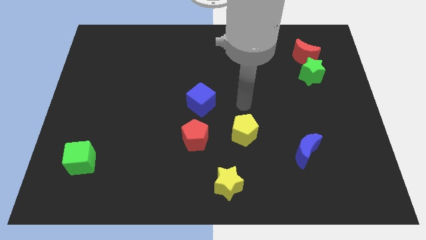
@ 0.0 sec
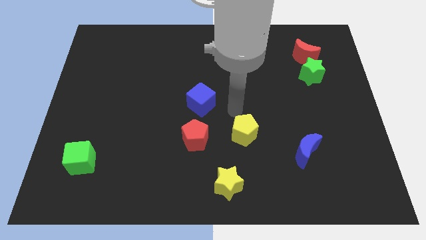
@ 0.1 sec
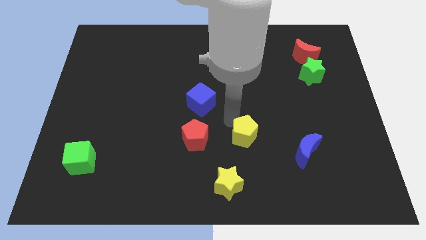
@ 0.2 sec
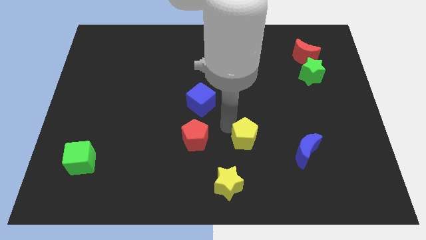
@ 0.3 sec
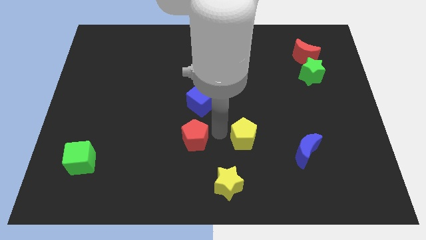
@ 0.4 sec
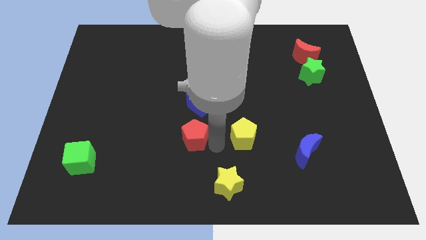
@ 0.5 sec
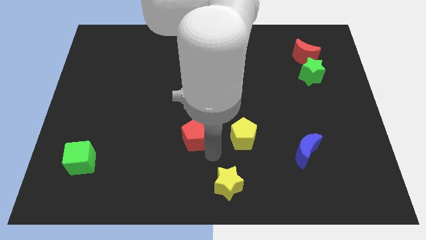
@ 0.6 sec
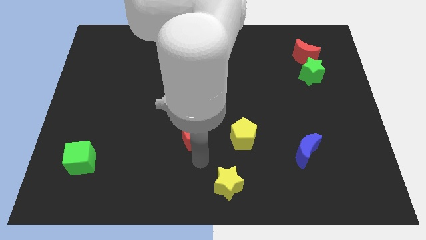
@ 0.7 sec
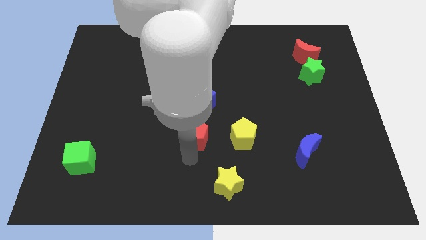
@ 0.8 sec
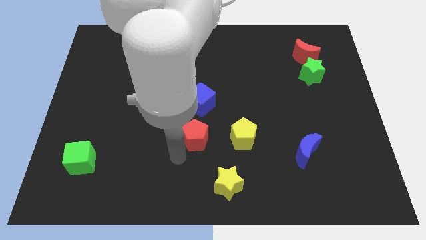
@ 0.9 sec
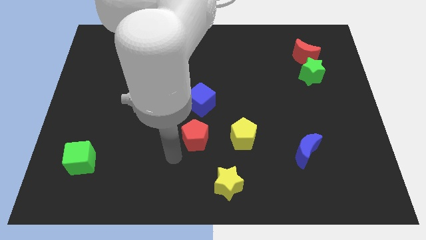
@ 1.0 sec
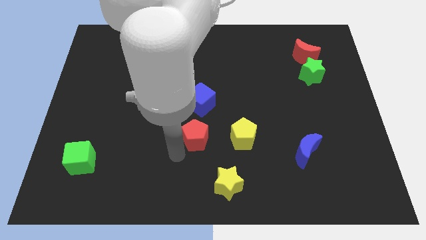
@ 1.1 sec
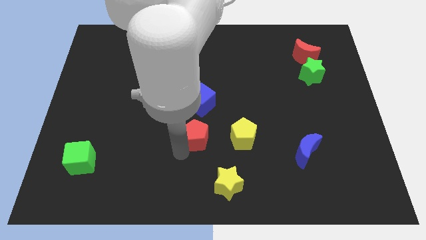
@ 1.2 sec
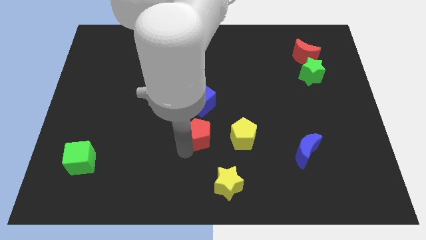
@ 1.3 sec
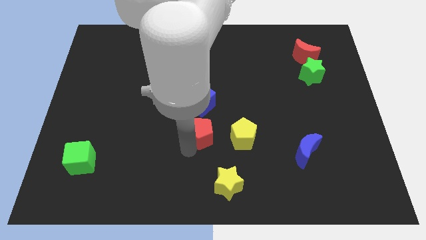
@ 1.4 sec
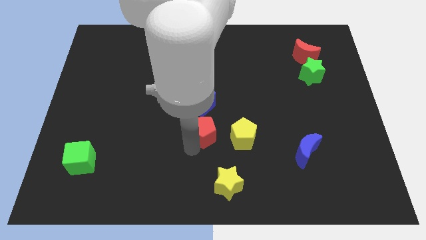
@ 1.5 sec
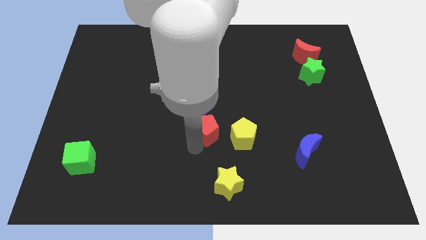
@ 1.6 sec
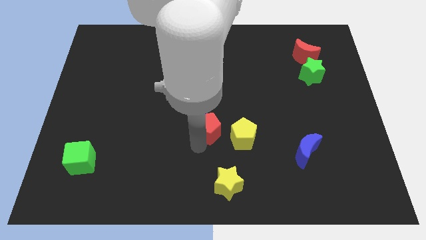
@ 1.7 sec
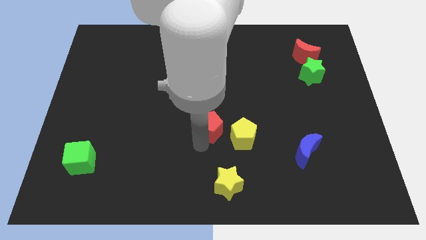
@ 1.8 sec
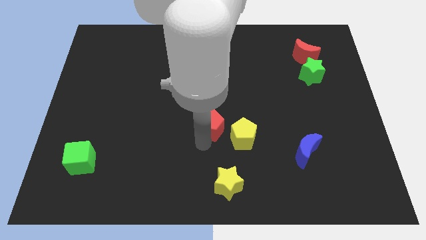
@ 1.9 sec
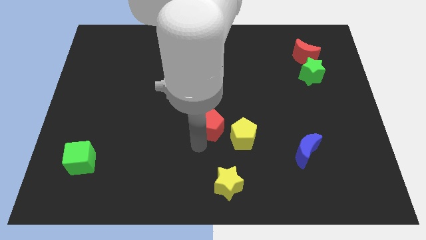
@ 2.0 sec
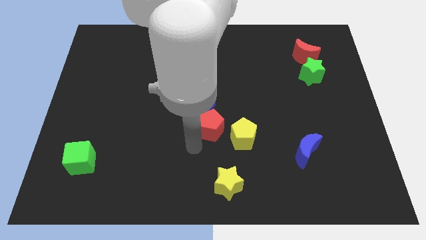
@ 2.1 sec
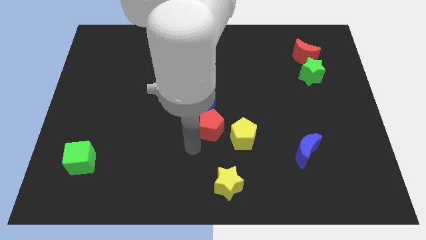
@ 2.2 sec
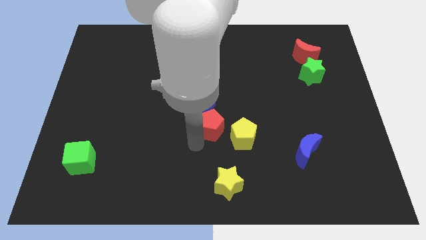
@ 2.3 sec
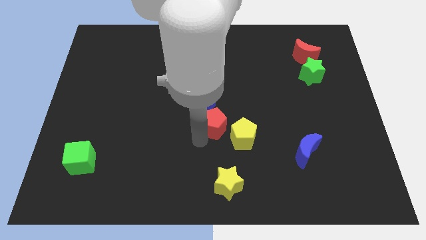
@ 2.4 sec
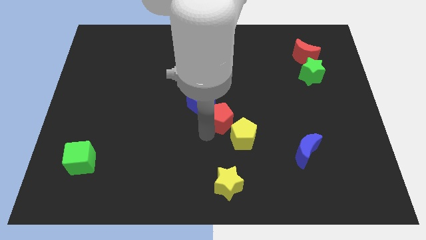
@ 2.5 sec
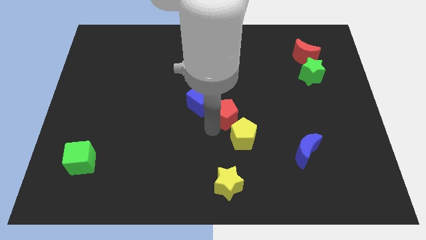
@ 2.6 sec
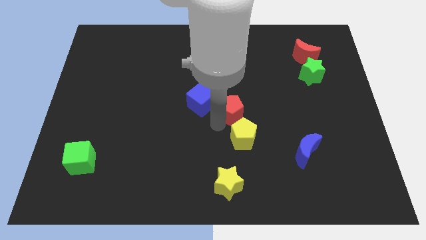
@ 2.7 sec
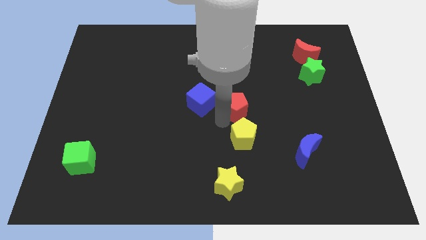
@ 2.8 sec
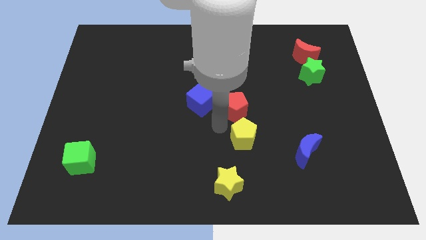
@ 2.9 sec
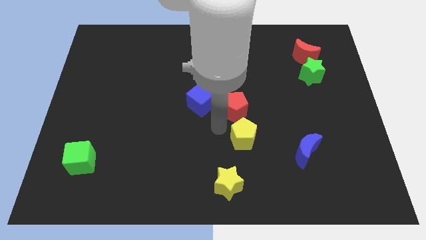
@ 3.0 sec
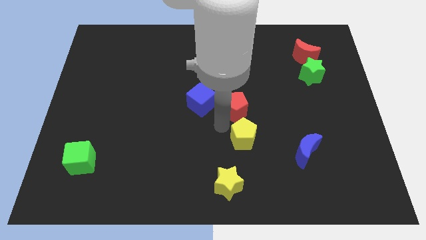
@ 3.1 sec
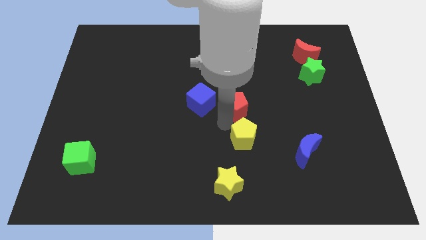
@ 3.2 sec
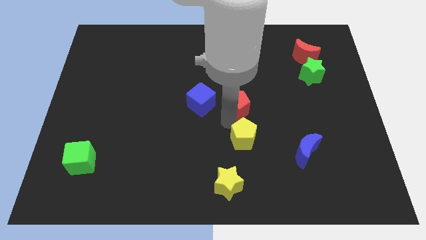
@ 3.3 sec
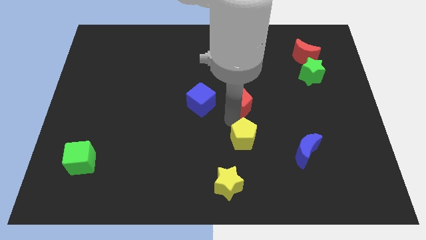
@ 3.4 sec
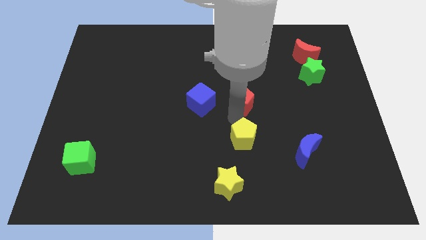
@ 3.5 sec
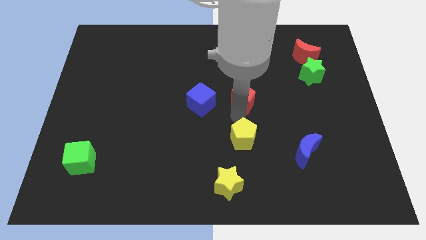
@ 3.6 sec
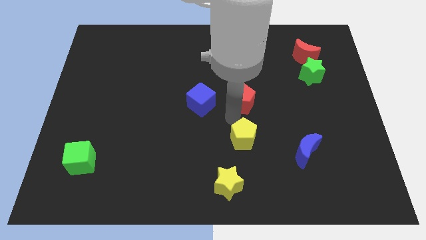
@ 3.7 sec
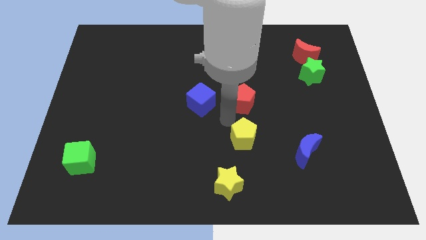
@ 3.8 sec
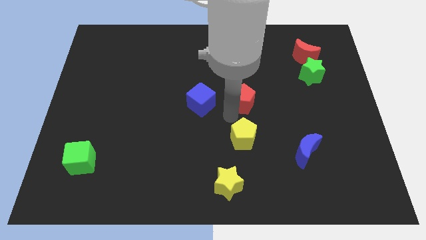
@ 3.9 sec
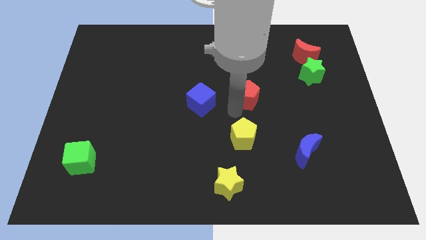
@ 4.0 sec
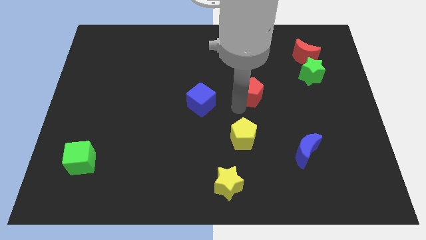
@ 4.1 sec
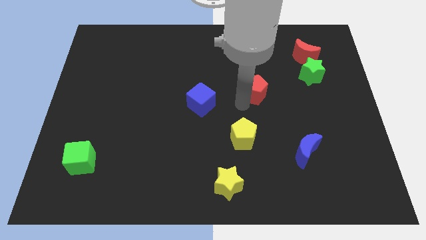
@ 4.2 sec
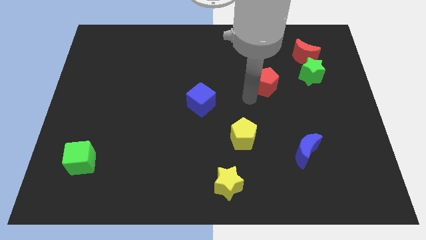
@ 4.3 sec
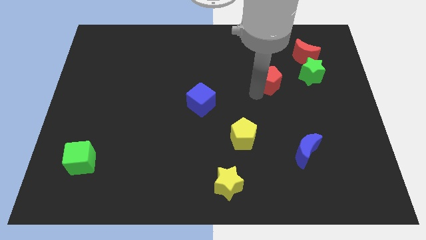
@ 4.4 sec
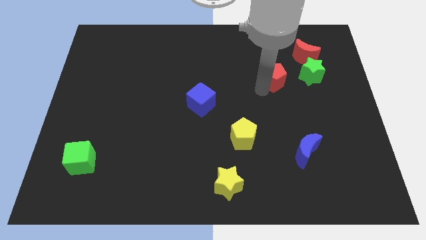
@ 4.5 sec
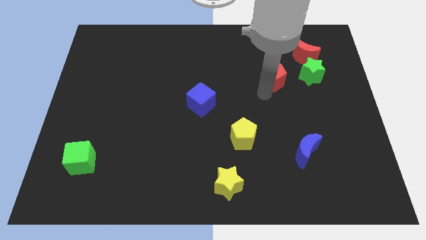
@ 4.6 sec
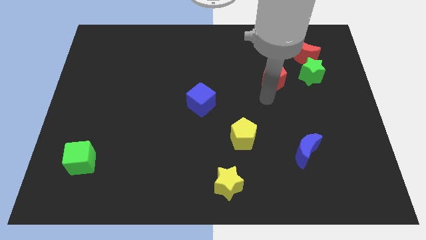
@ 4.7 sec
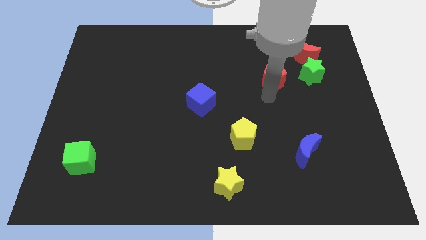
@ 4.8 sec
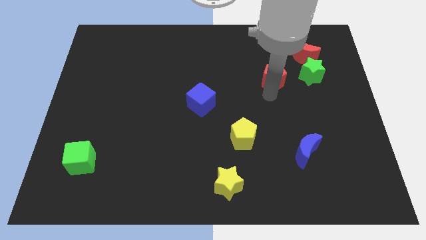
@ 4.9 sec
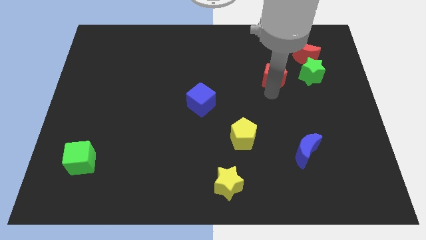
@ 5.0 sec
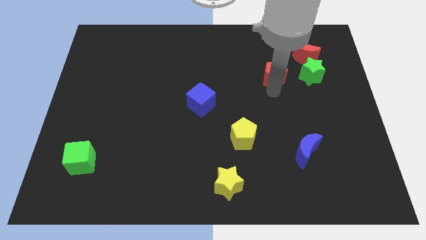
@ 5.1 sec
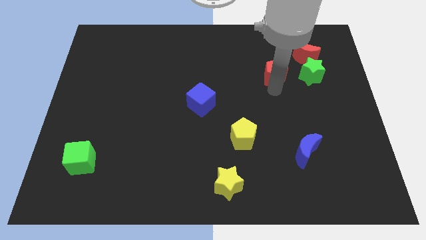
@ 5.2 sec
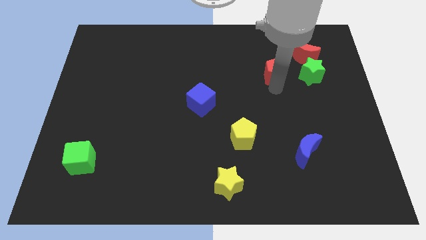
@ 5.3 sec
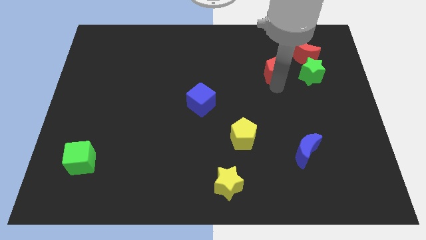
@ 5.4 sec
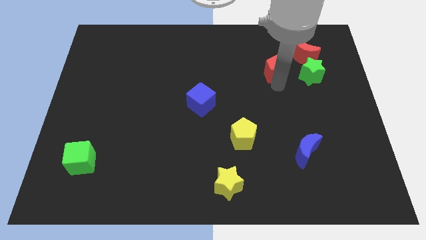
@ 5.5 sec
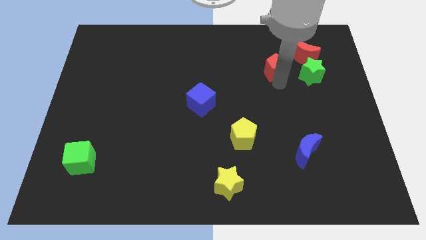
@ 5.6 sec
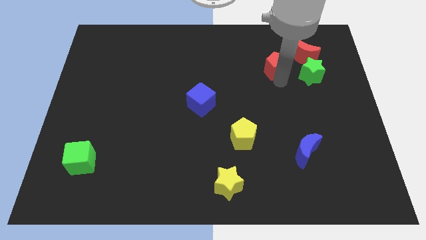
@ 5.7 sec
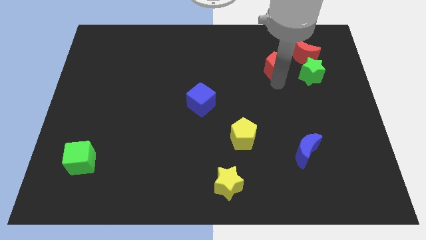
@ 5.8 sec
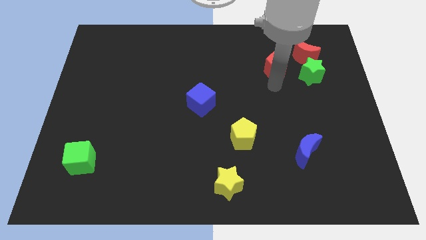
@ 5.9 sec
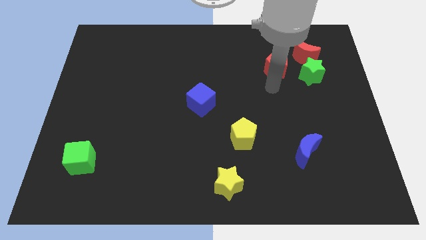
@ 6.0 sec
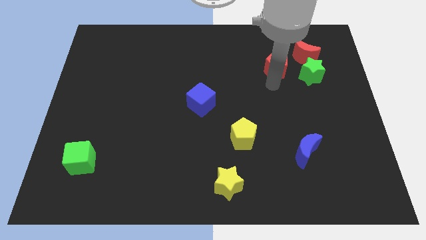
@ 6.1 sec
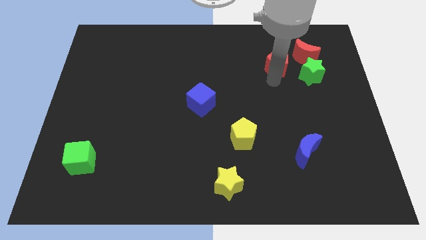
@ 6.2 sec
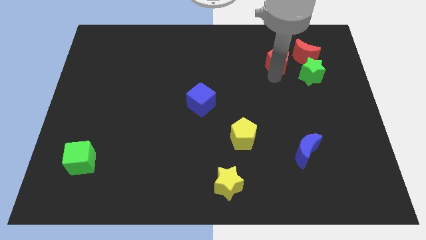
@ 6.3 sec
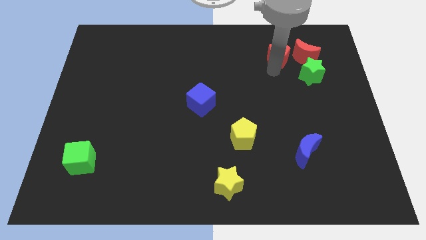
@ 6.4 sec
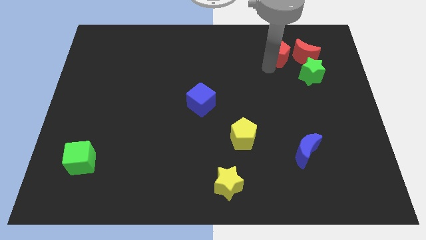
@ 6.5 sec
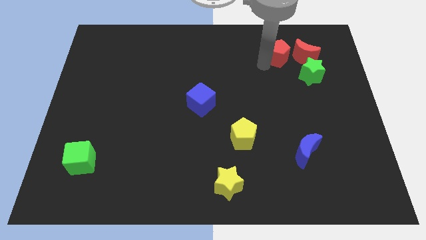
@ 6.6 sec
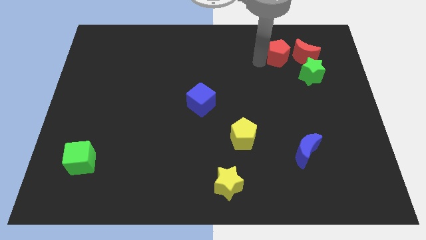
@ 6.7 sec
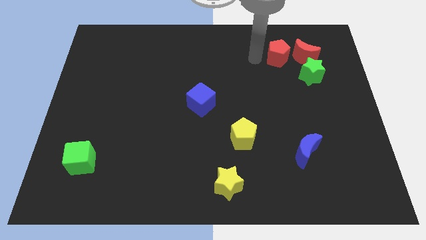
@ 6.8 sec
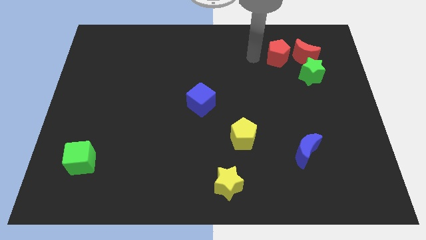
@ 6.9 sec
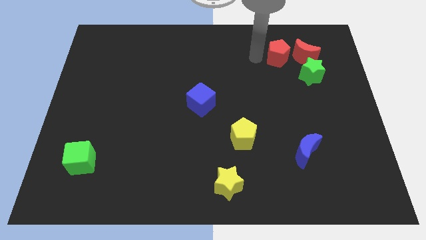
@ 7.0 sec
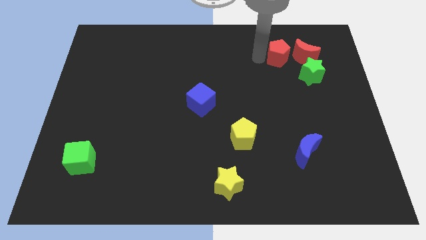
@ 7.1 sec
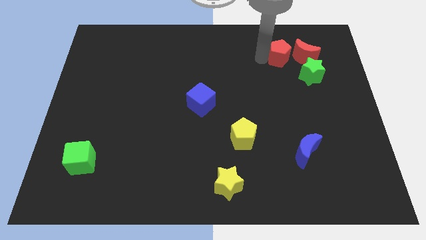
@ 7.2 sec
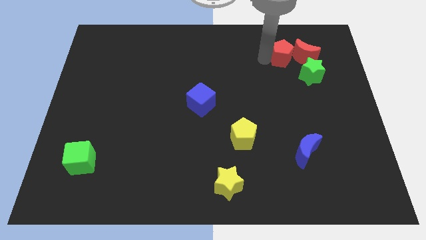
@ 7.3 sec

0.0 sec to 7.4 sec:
put the red pentagon to the red moon

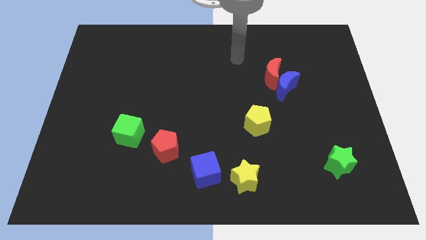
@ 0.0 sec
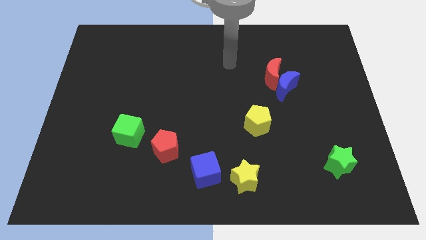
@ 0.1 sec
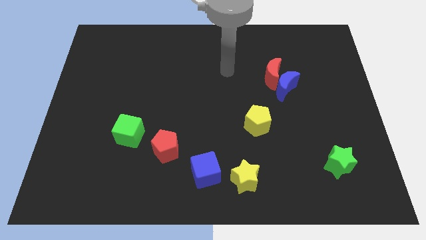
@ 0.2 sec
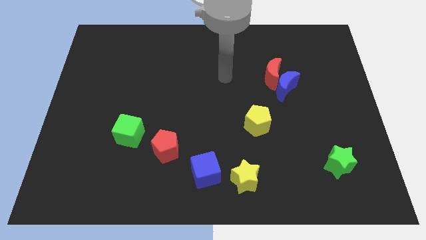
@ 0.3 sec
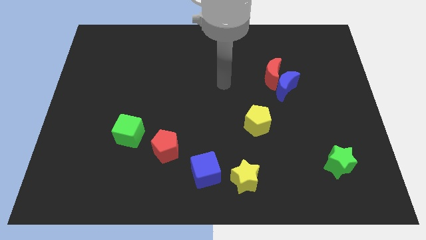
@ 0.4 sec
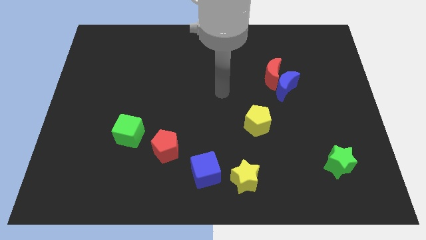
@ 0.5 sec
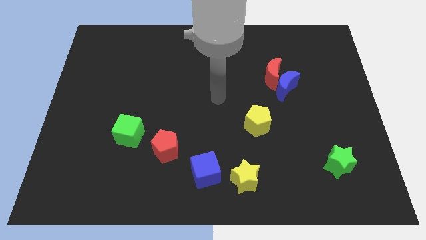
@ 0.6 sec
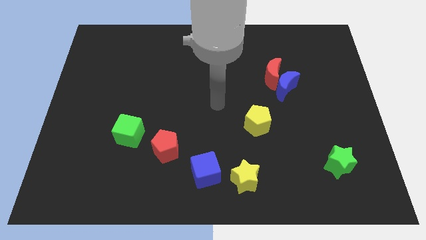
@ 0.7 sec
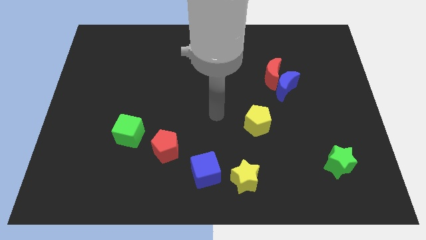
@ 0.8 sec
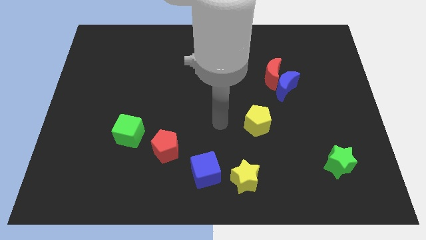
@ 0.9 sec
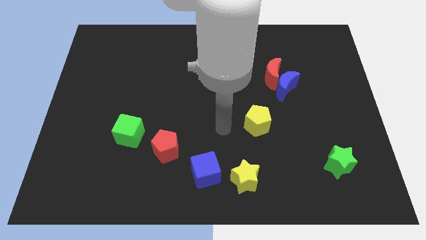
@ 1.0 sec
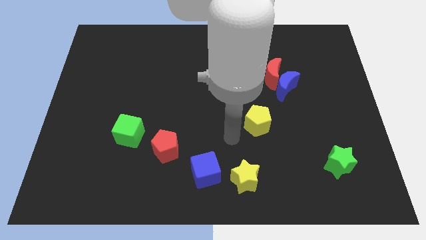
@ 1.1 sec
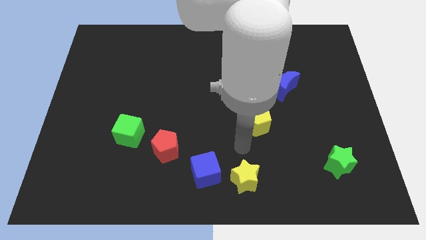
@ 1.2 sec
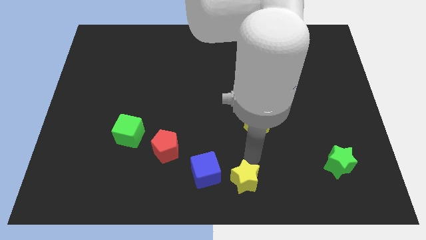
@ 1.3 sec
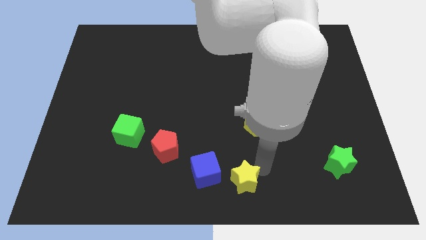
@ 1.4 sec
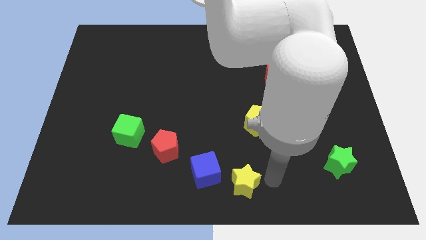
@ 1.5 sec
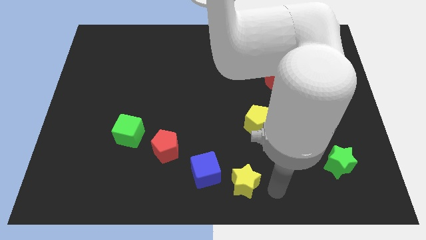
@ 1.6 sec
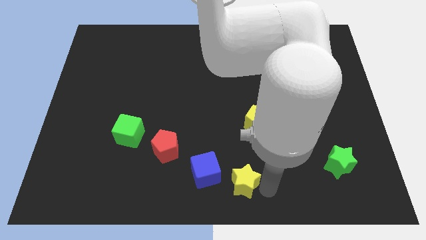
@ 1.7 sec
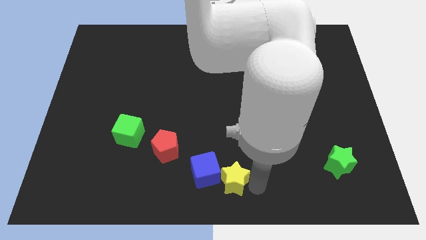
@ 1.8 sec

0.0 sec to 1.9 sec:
slide the yellow star to the blue cube
